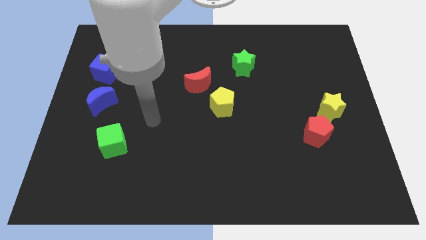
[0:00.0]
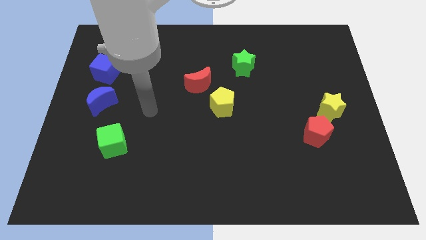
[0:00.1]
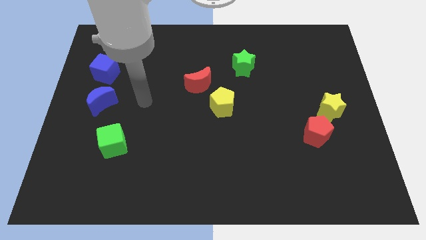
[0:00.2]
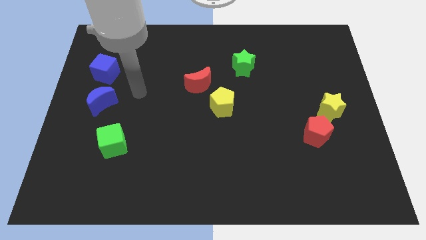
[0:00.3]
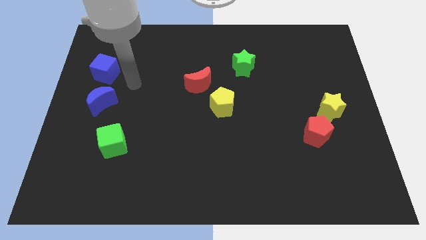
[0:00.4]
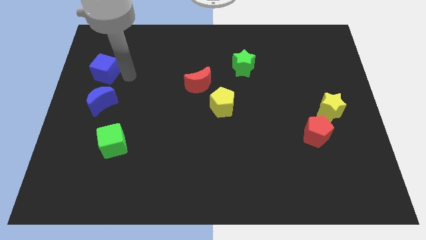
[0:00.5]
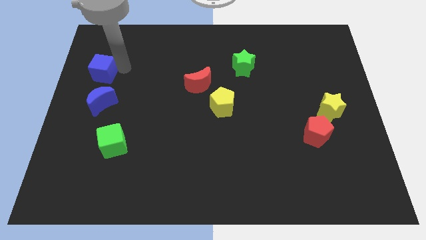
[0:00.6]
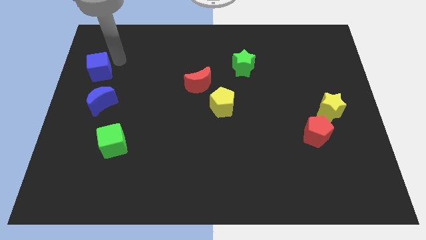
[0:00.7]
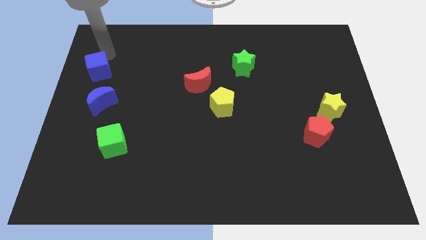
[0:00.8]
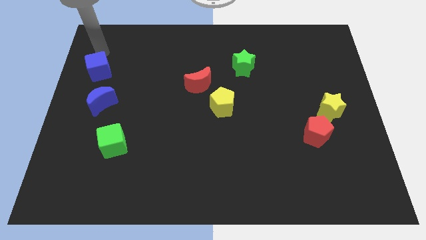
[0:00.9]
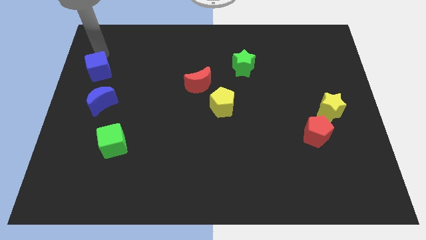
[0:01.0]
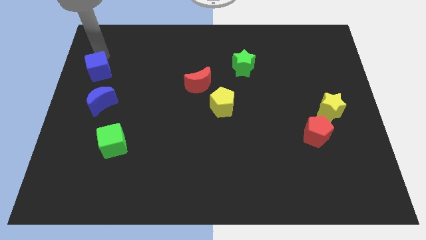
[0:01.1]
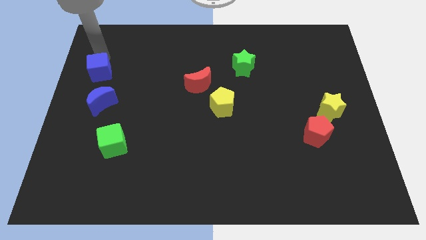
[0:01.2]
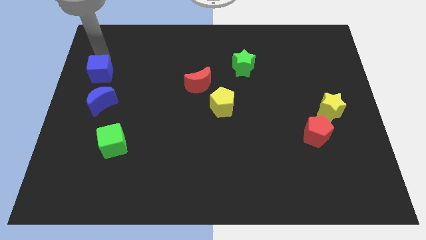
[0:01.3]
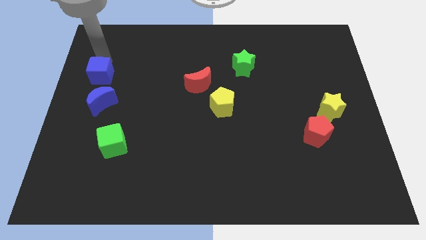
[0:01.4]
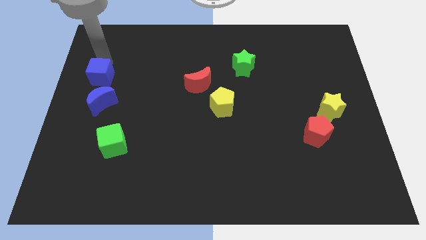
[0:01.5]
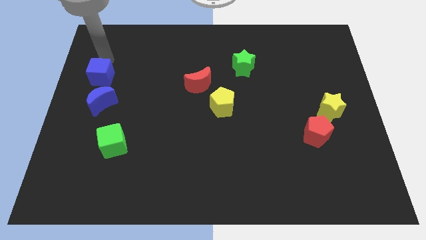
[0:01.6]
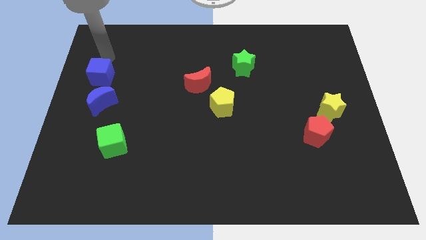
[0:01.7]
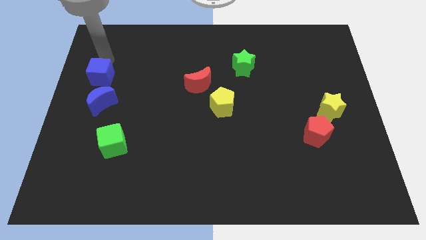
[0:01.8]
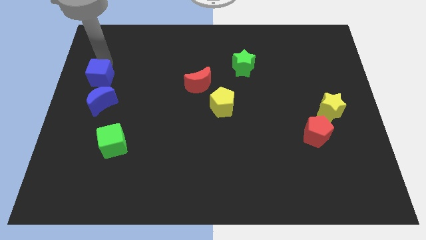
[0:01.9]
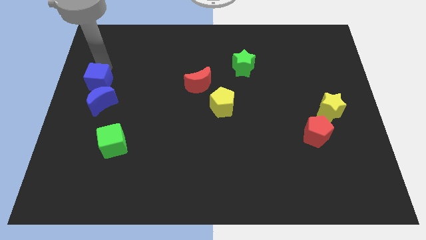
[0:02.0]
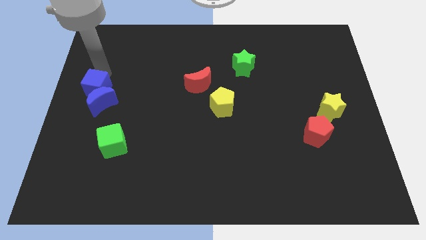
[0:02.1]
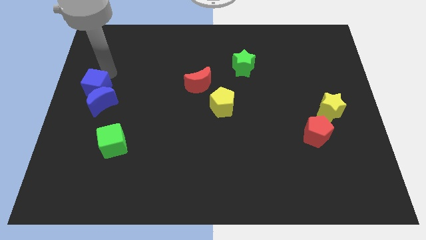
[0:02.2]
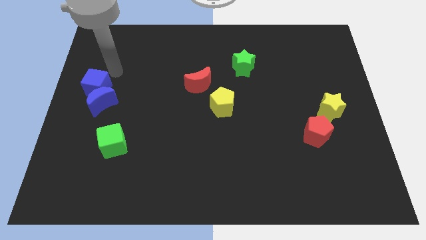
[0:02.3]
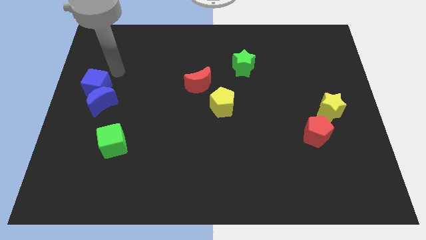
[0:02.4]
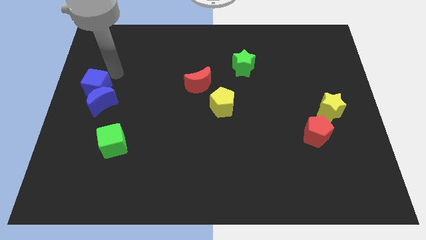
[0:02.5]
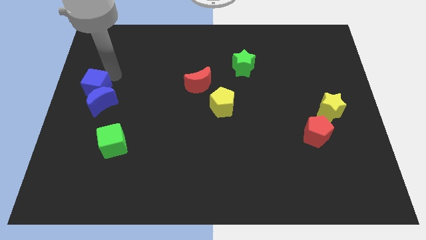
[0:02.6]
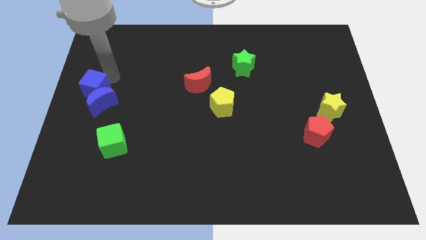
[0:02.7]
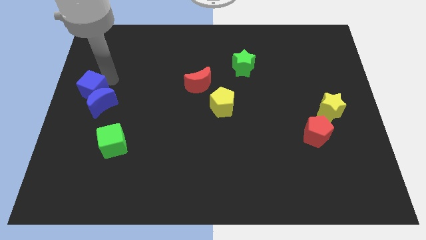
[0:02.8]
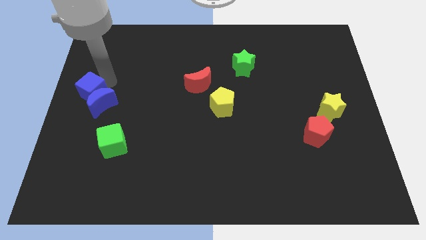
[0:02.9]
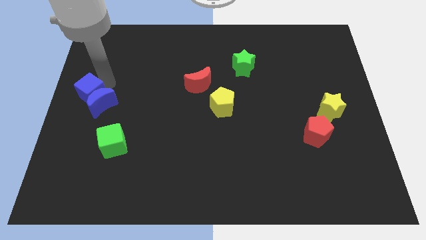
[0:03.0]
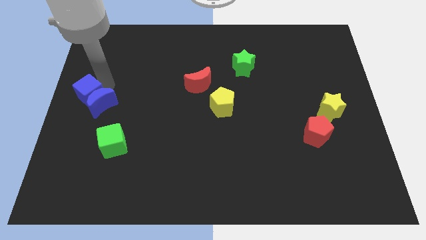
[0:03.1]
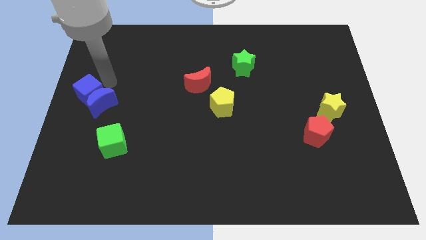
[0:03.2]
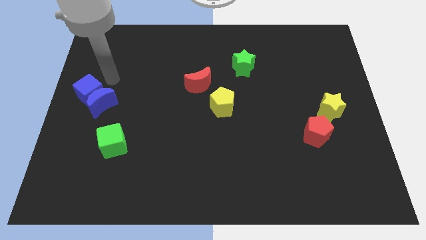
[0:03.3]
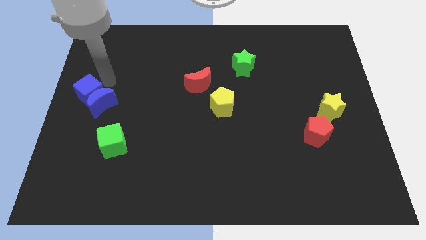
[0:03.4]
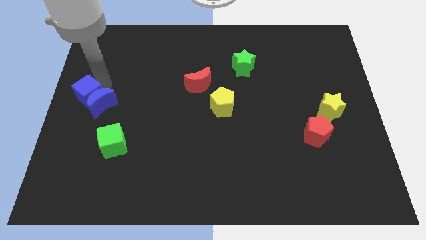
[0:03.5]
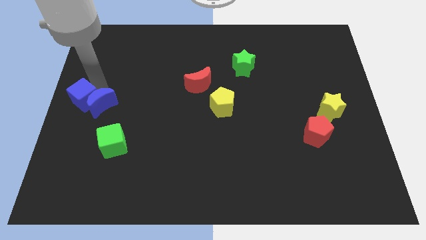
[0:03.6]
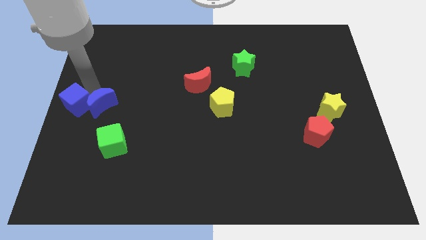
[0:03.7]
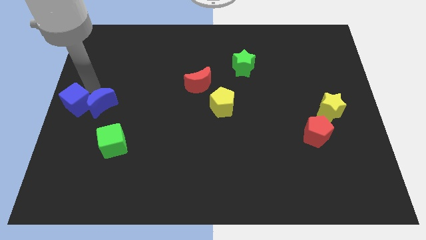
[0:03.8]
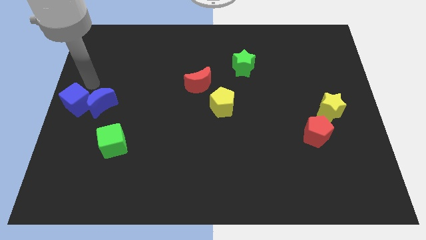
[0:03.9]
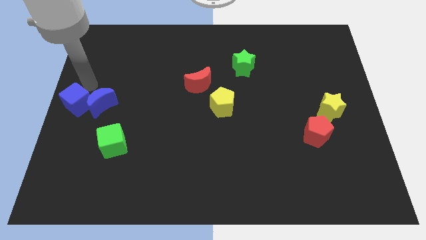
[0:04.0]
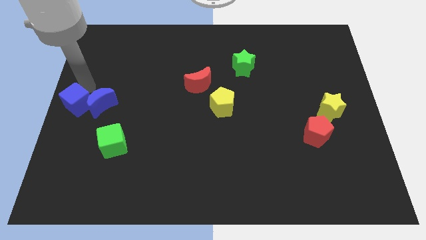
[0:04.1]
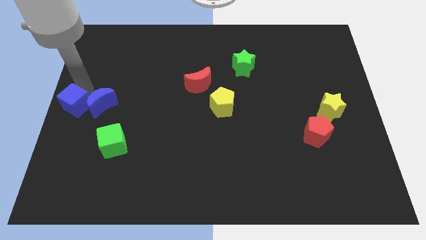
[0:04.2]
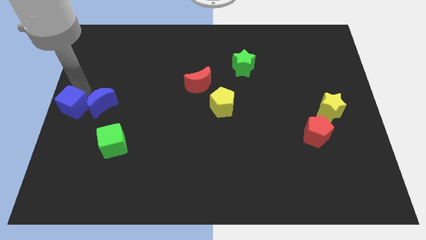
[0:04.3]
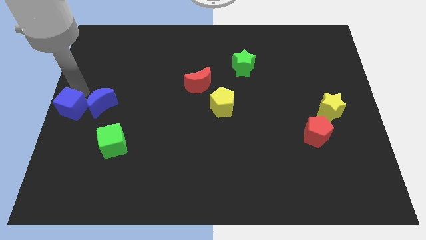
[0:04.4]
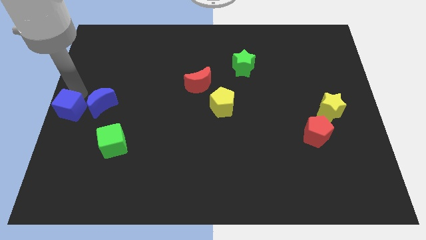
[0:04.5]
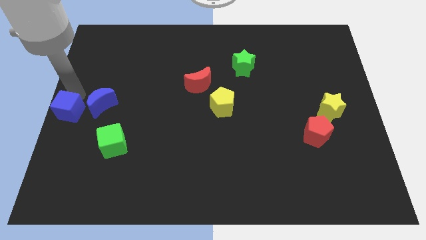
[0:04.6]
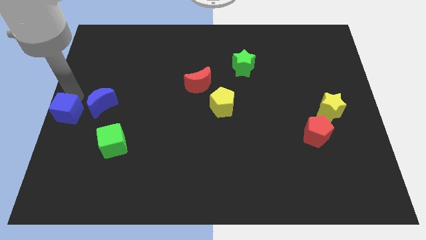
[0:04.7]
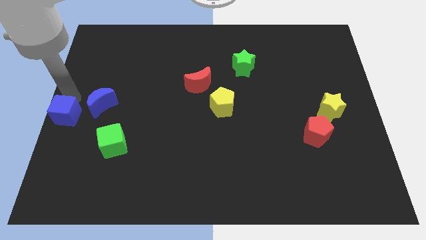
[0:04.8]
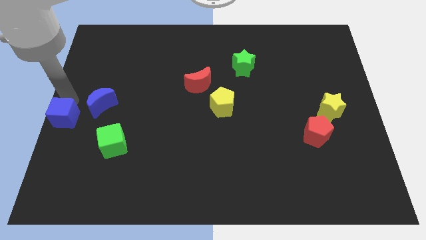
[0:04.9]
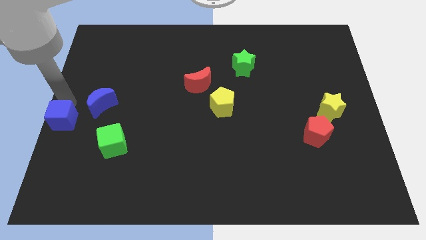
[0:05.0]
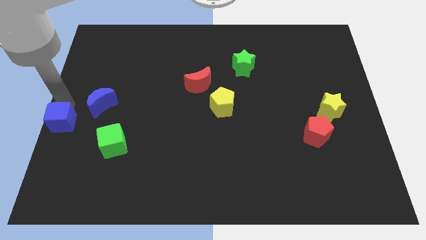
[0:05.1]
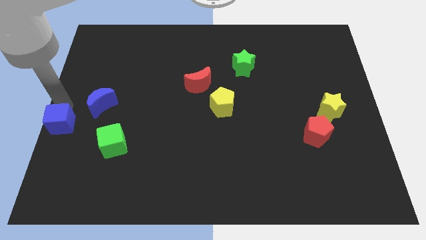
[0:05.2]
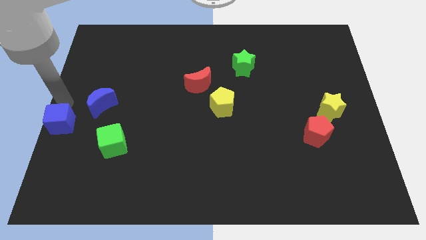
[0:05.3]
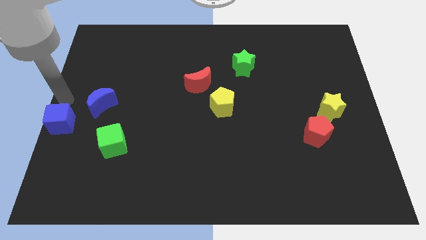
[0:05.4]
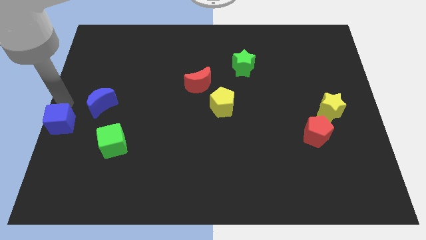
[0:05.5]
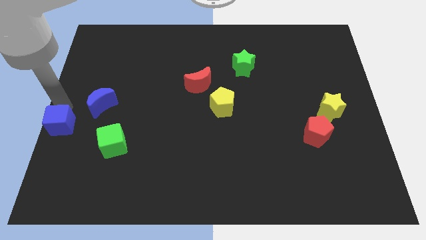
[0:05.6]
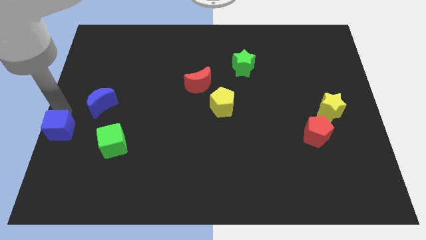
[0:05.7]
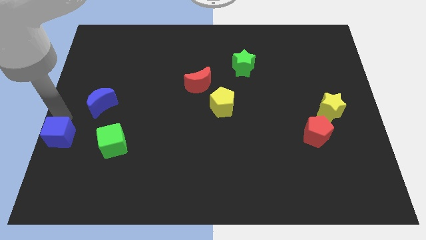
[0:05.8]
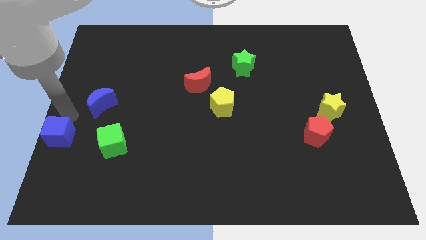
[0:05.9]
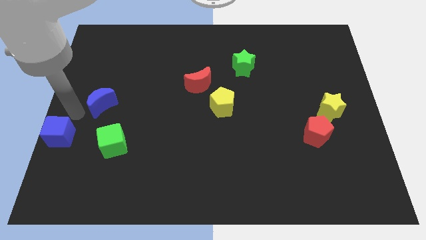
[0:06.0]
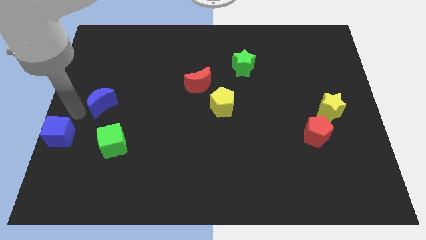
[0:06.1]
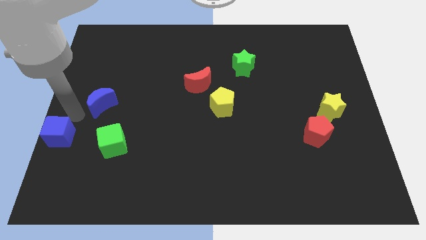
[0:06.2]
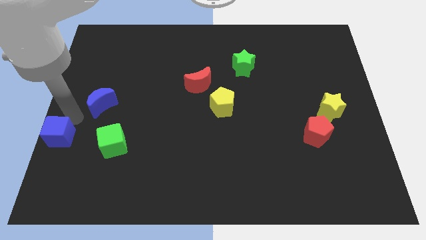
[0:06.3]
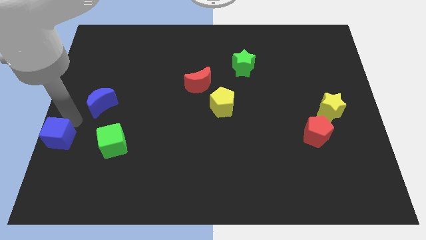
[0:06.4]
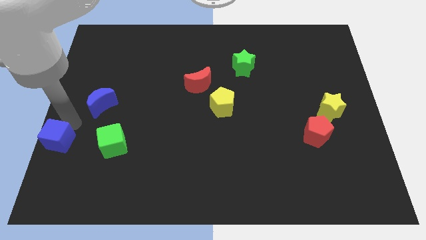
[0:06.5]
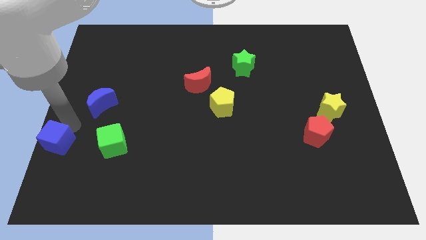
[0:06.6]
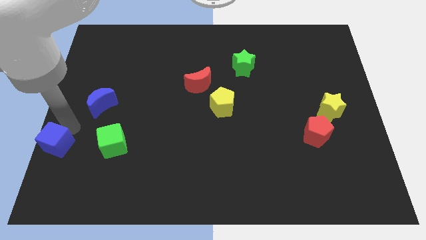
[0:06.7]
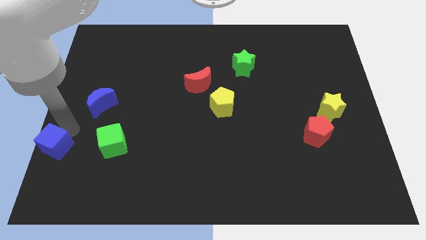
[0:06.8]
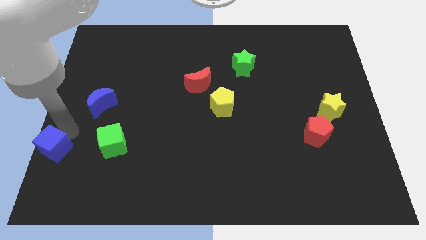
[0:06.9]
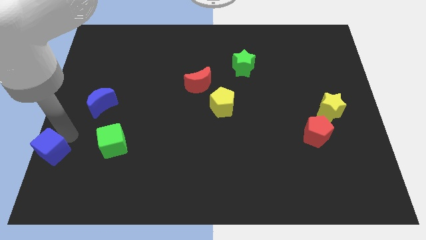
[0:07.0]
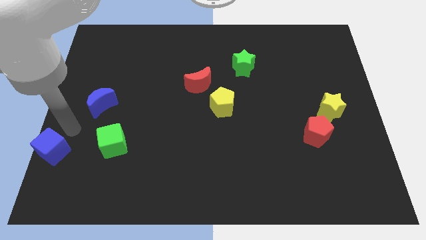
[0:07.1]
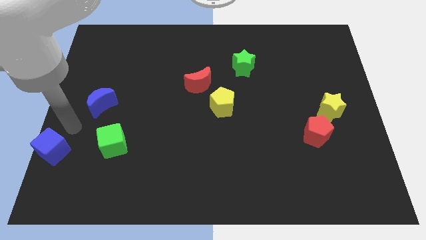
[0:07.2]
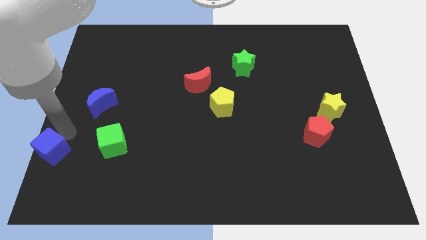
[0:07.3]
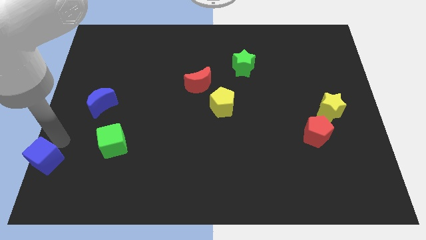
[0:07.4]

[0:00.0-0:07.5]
slide the blue cube to the bottom left of the board
